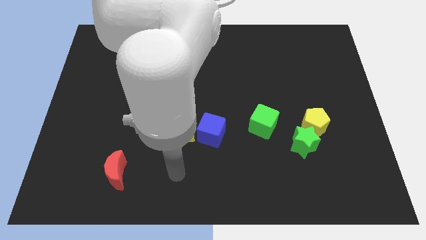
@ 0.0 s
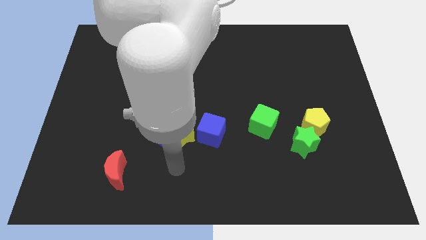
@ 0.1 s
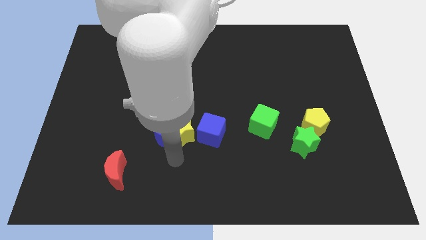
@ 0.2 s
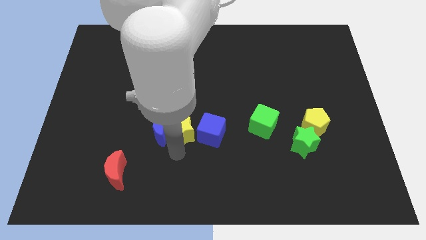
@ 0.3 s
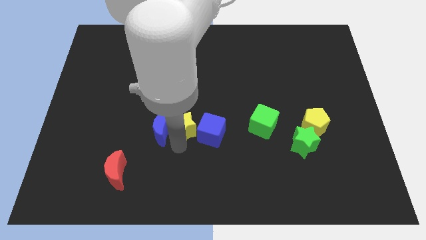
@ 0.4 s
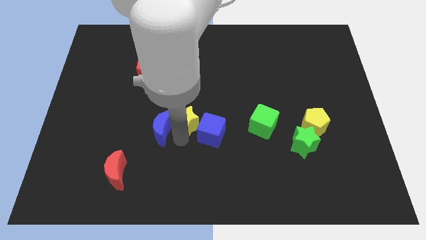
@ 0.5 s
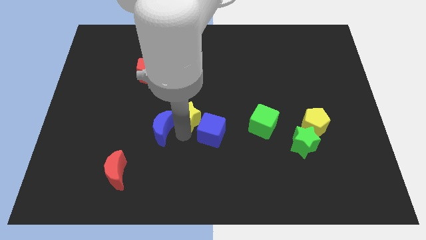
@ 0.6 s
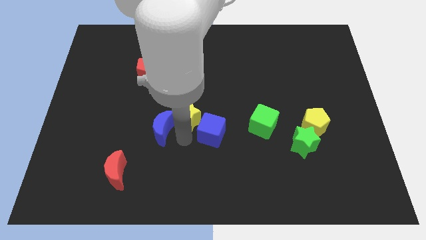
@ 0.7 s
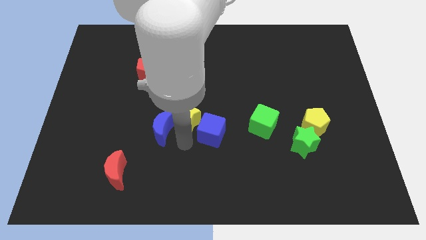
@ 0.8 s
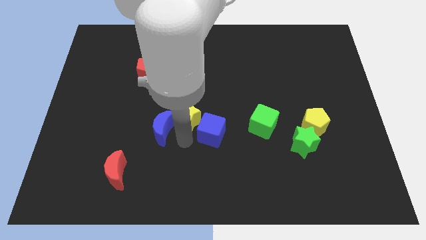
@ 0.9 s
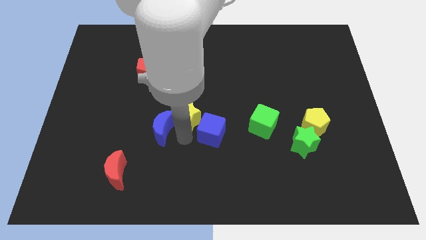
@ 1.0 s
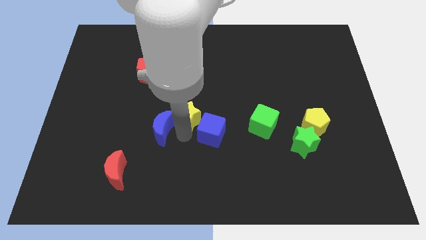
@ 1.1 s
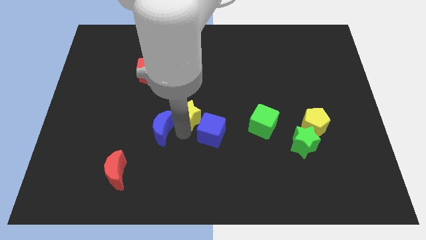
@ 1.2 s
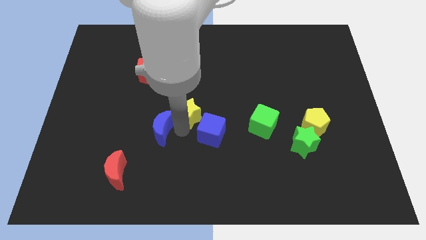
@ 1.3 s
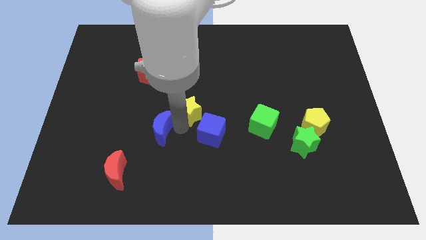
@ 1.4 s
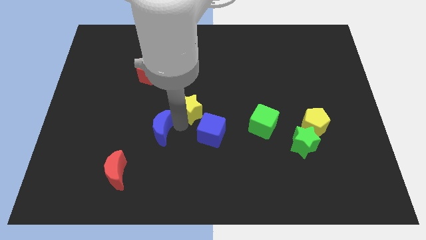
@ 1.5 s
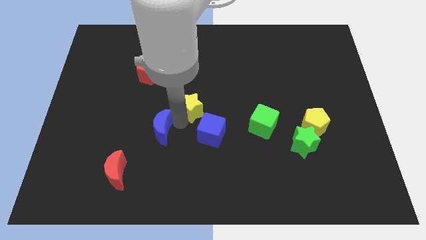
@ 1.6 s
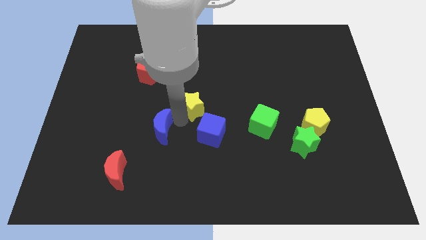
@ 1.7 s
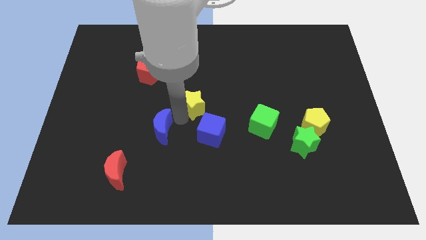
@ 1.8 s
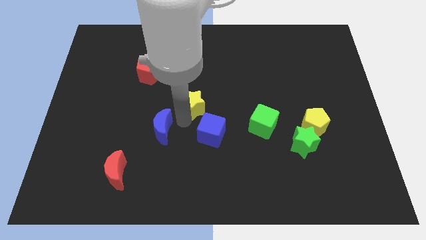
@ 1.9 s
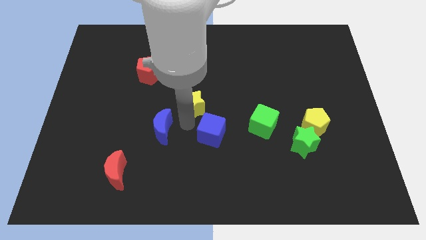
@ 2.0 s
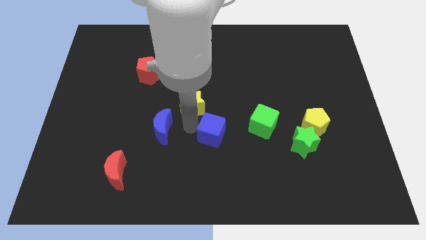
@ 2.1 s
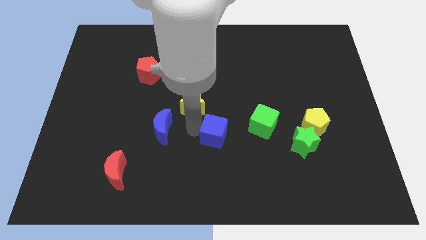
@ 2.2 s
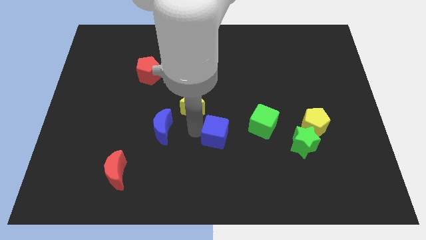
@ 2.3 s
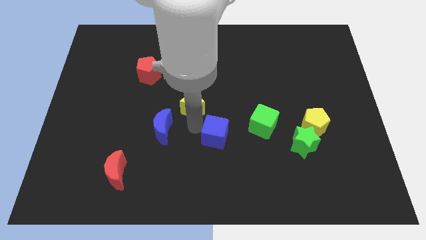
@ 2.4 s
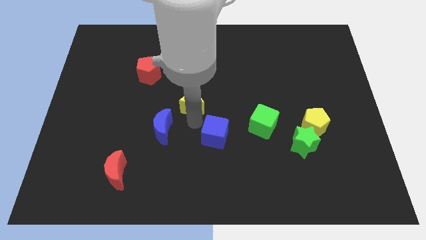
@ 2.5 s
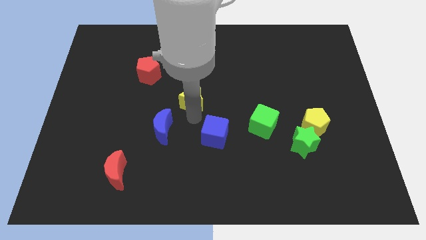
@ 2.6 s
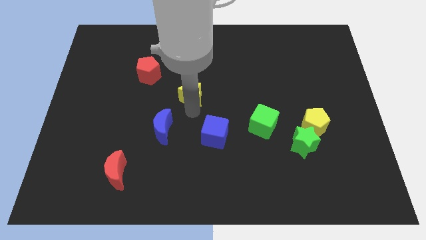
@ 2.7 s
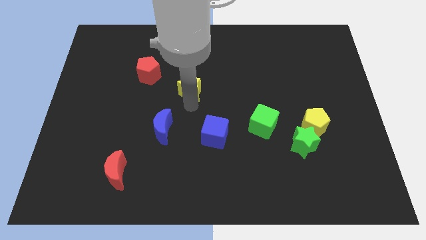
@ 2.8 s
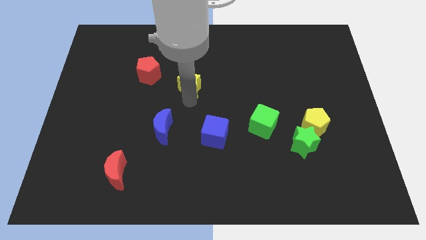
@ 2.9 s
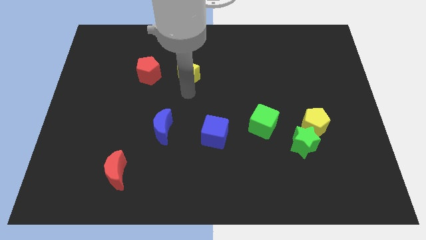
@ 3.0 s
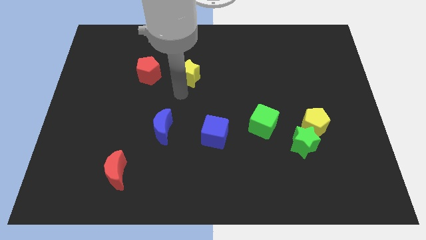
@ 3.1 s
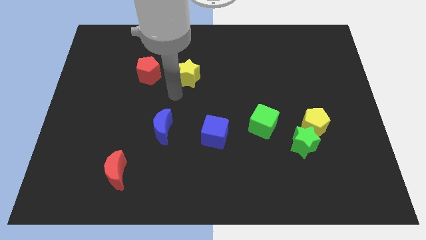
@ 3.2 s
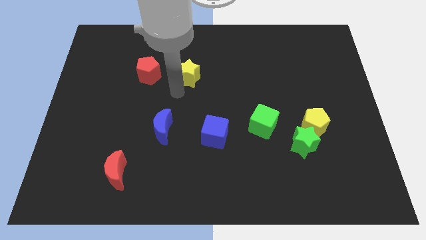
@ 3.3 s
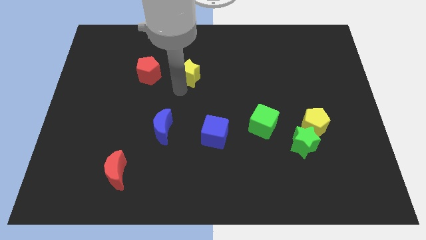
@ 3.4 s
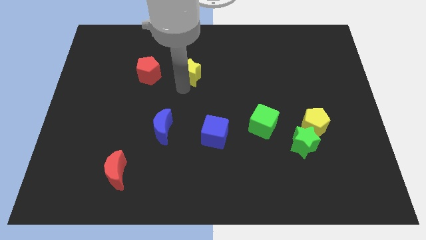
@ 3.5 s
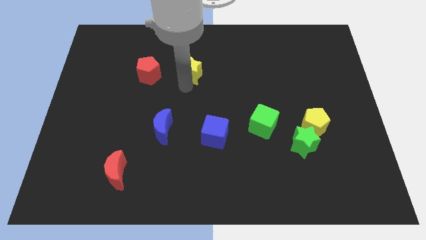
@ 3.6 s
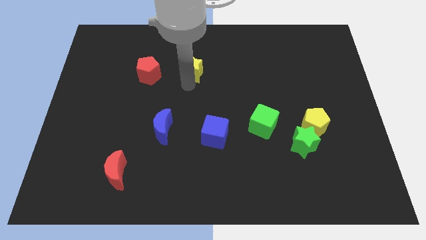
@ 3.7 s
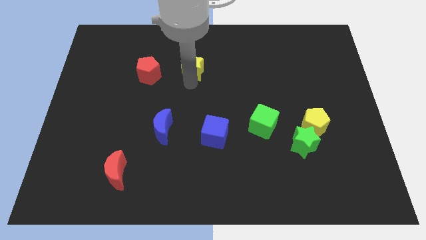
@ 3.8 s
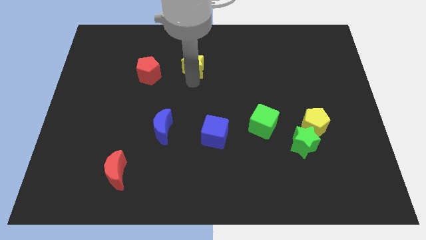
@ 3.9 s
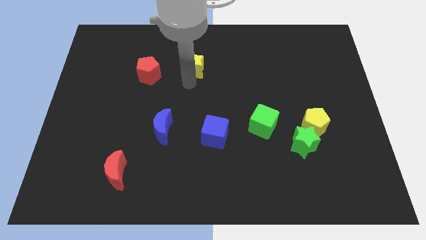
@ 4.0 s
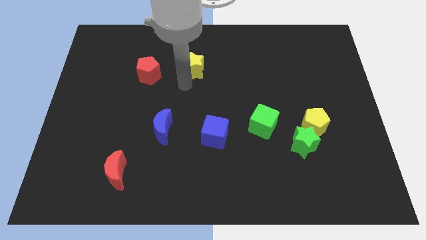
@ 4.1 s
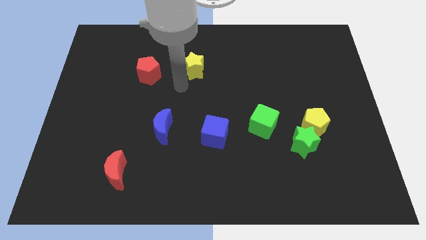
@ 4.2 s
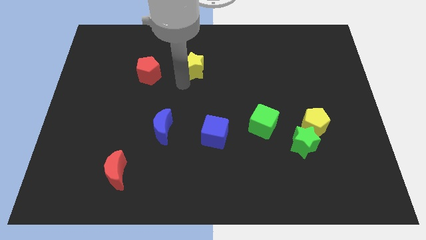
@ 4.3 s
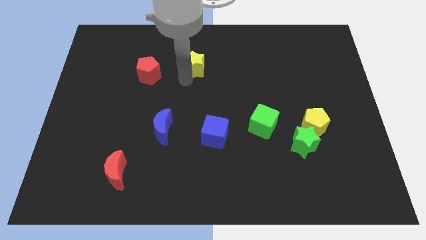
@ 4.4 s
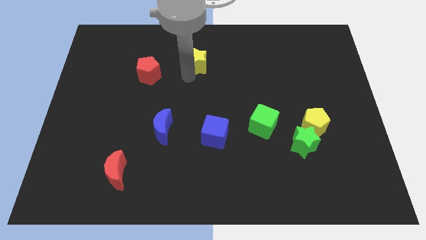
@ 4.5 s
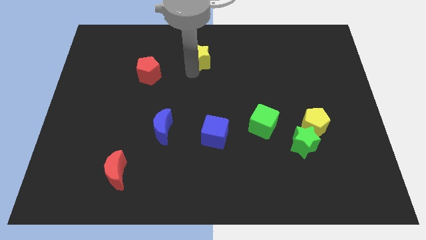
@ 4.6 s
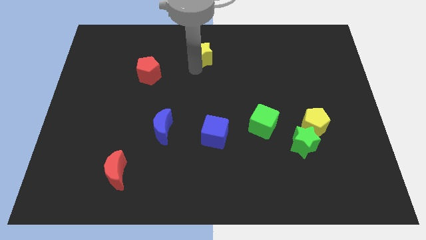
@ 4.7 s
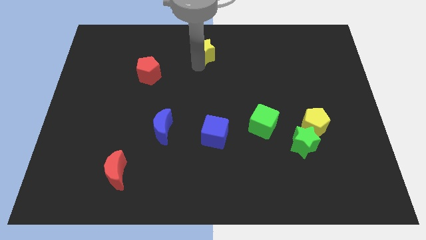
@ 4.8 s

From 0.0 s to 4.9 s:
push the yellow star to the top

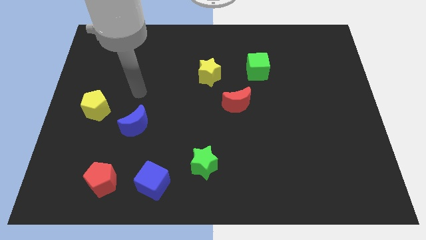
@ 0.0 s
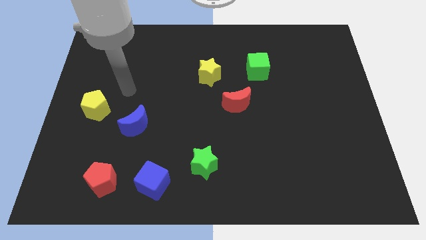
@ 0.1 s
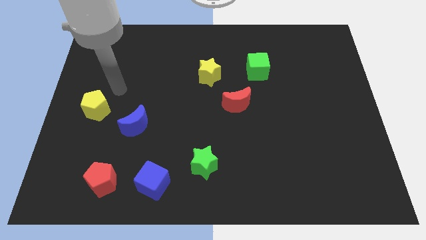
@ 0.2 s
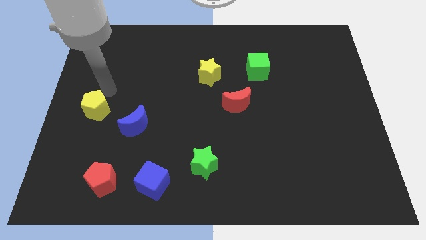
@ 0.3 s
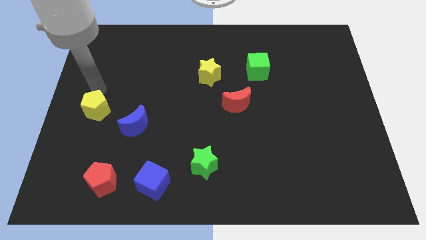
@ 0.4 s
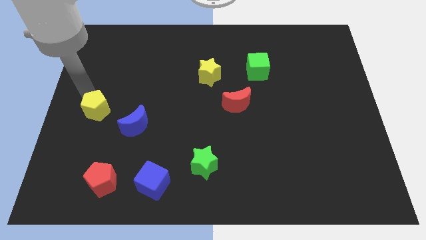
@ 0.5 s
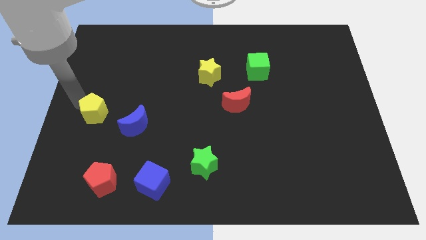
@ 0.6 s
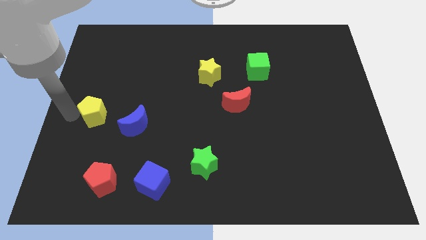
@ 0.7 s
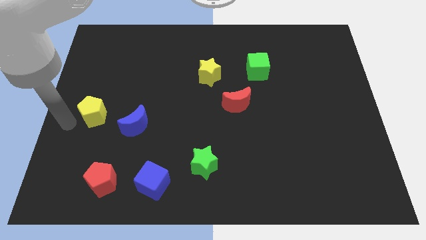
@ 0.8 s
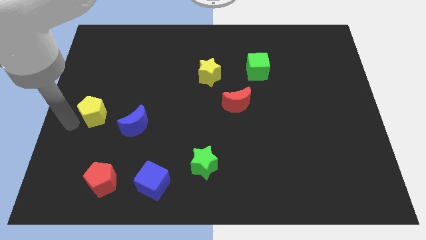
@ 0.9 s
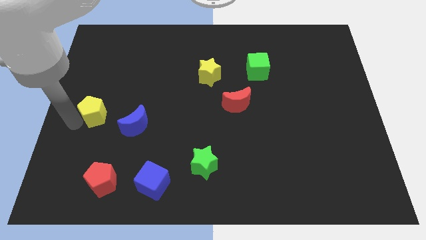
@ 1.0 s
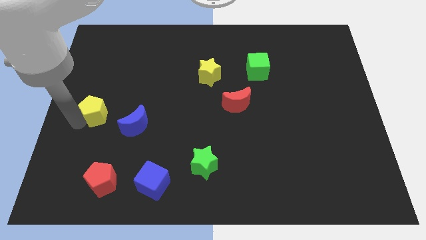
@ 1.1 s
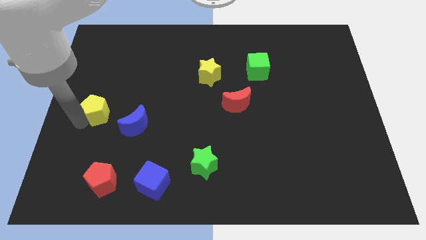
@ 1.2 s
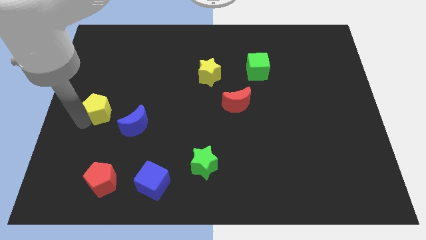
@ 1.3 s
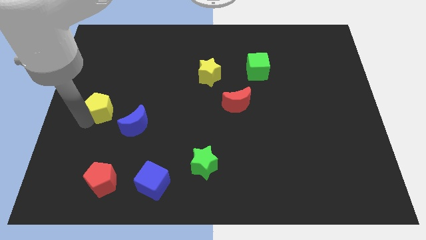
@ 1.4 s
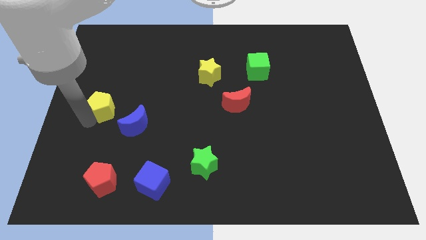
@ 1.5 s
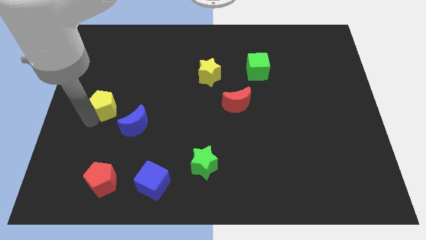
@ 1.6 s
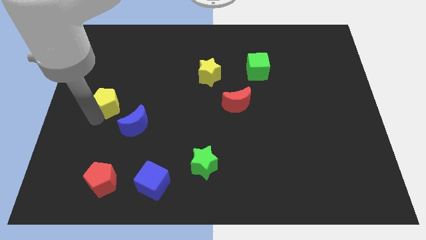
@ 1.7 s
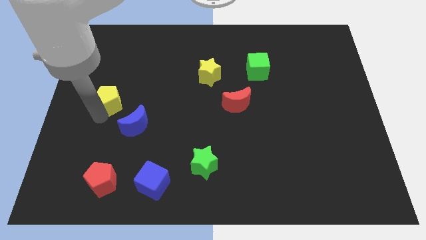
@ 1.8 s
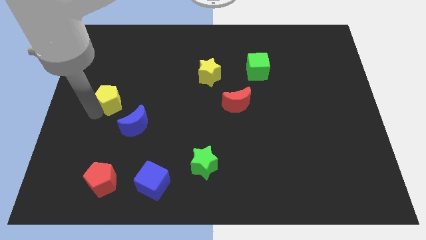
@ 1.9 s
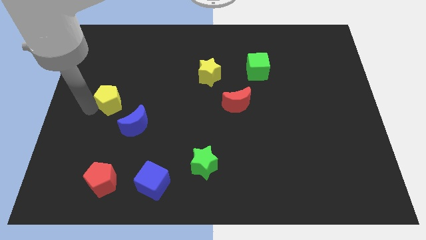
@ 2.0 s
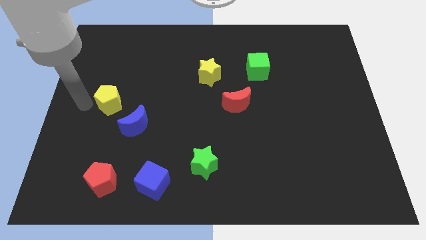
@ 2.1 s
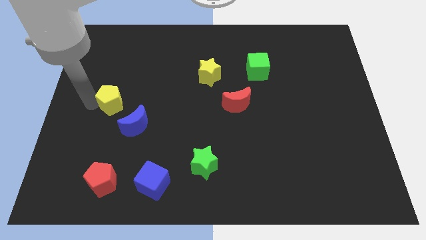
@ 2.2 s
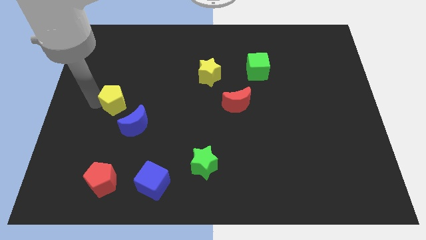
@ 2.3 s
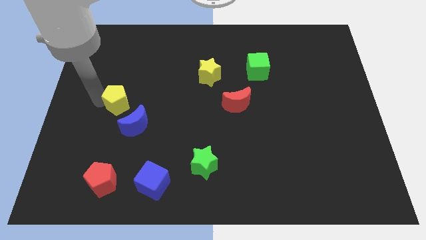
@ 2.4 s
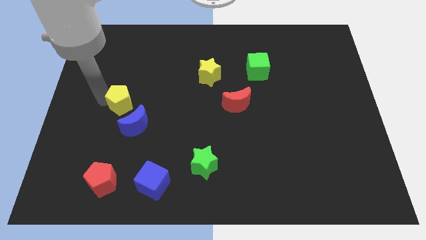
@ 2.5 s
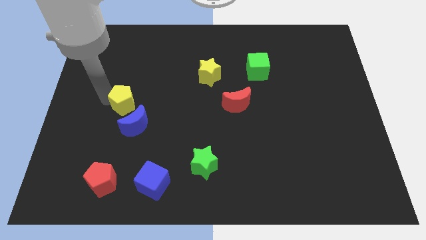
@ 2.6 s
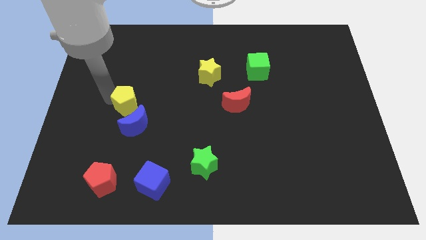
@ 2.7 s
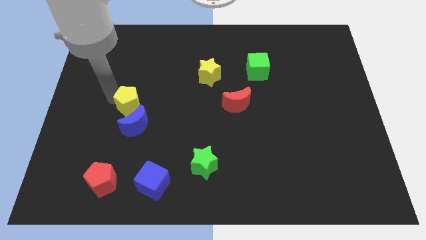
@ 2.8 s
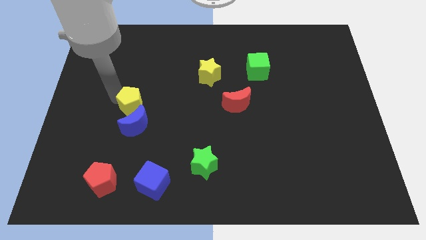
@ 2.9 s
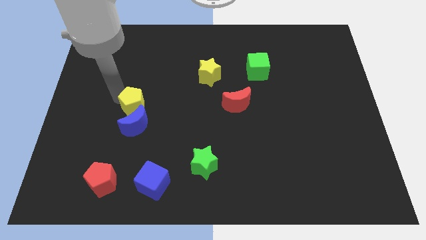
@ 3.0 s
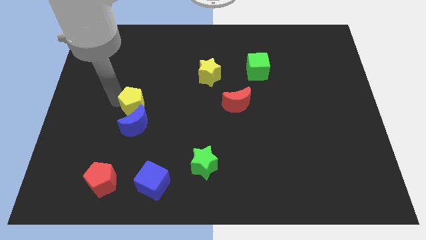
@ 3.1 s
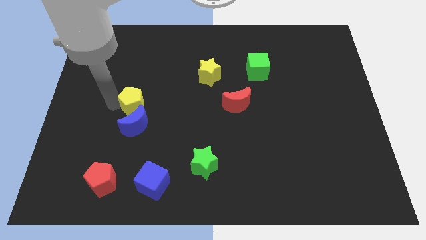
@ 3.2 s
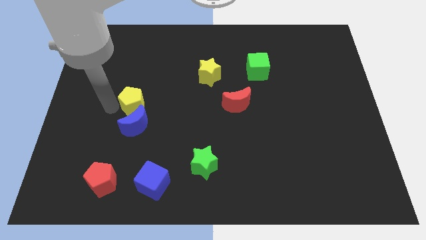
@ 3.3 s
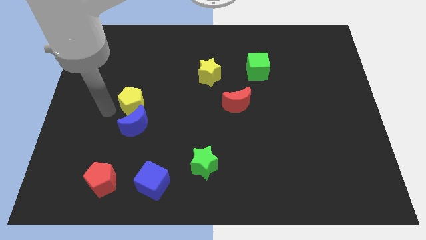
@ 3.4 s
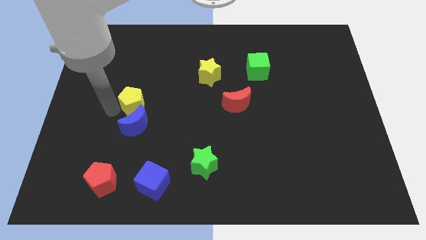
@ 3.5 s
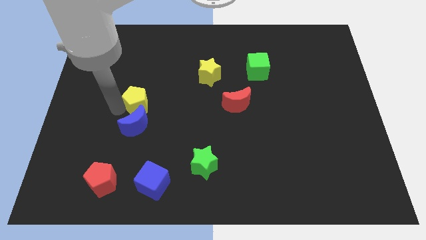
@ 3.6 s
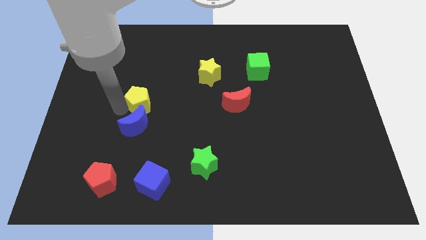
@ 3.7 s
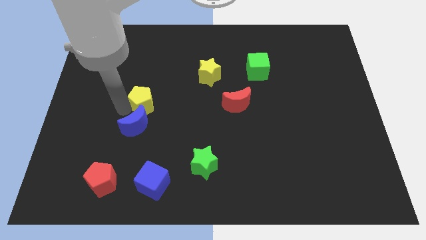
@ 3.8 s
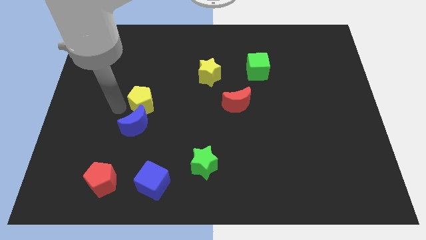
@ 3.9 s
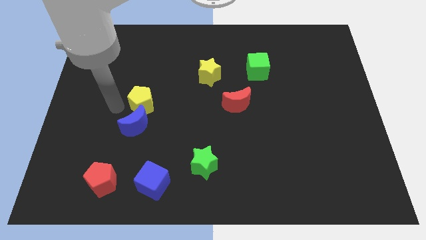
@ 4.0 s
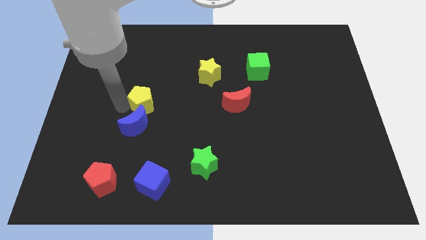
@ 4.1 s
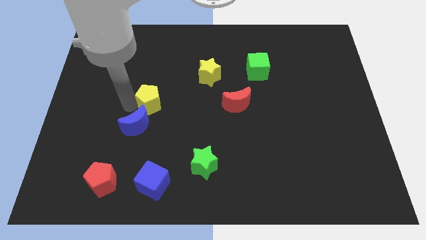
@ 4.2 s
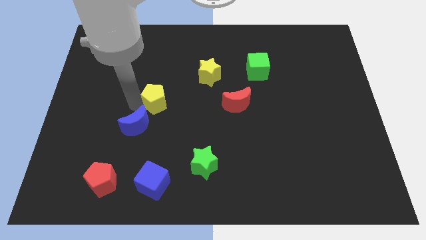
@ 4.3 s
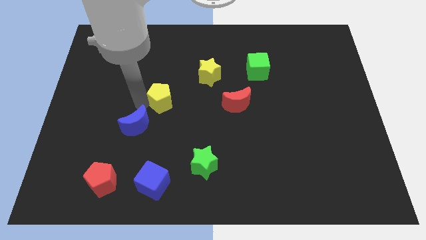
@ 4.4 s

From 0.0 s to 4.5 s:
move the yellow pentagon to the center of the board
